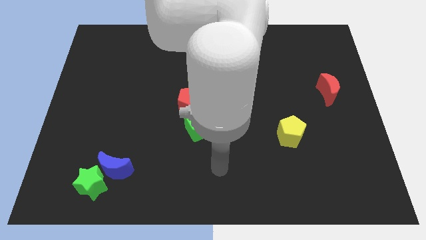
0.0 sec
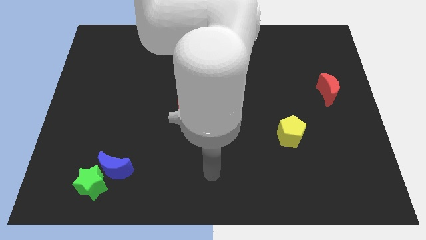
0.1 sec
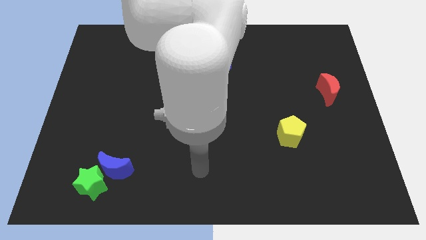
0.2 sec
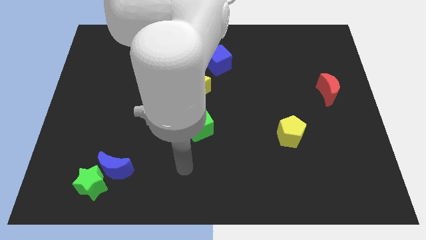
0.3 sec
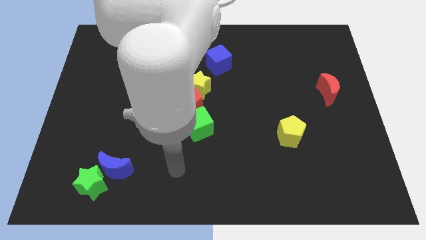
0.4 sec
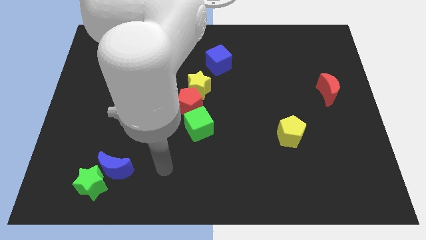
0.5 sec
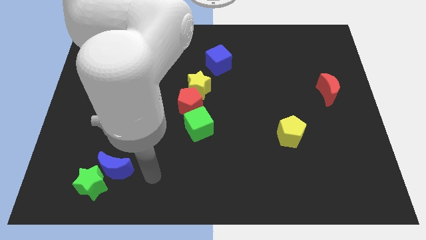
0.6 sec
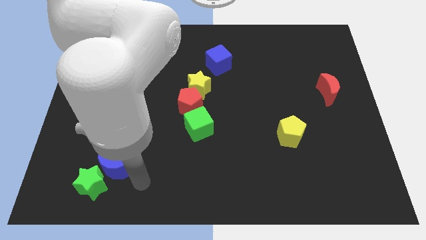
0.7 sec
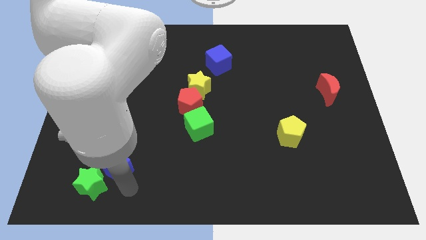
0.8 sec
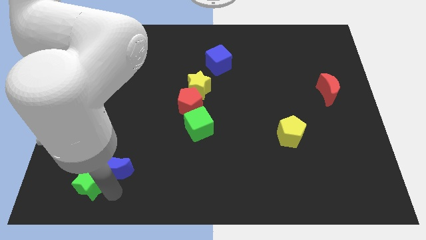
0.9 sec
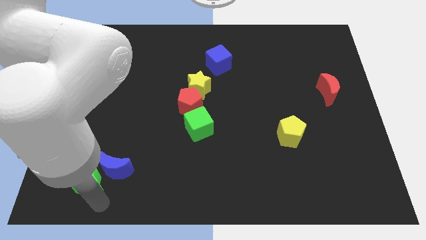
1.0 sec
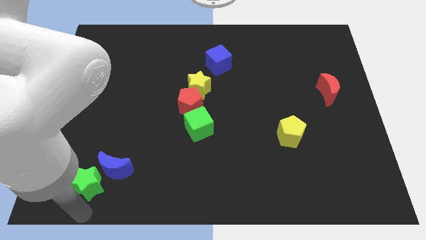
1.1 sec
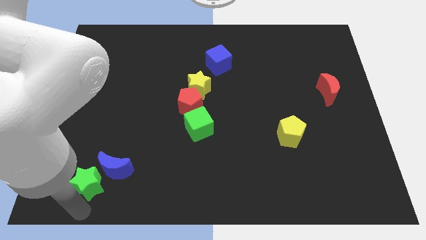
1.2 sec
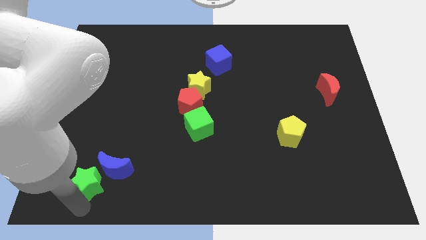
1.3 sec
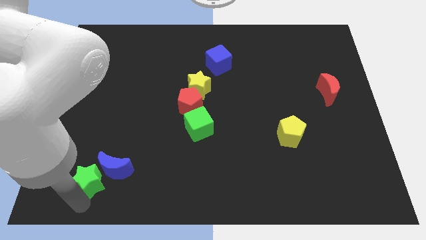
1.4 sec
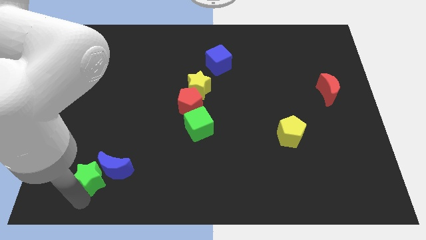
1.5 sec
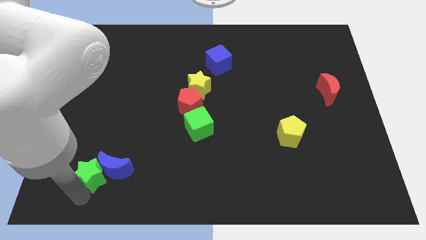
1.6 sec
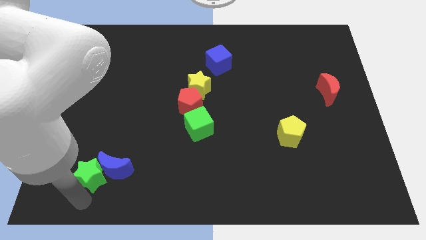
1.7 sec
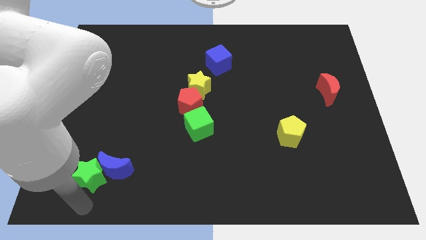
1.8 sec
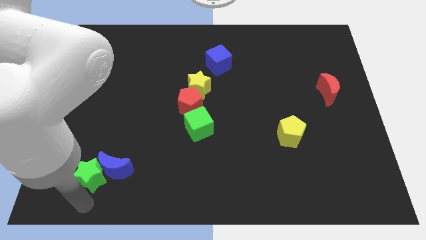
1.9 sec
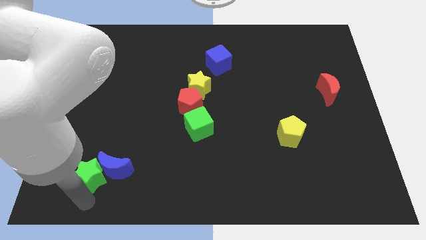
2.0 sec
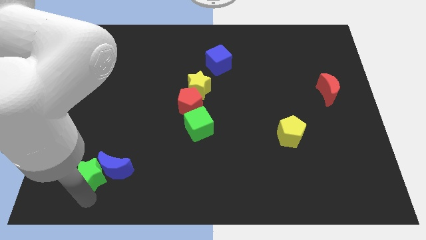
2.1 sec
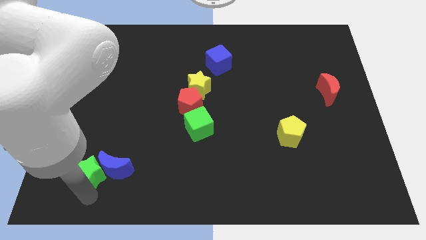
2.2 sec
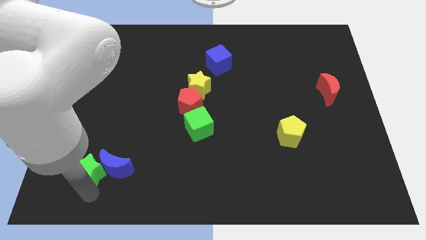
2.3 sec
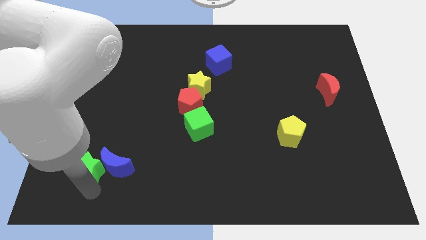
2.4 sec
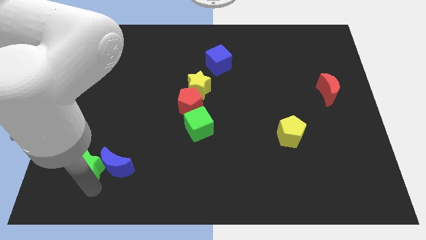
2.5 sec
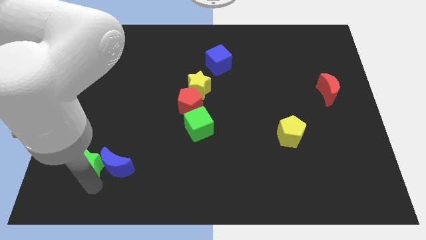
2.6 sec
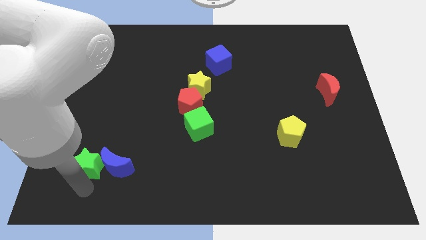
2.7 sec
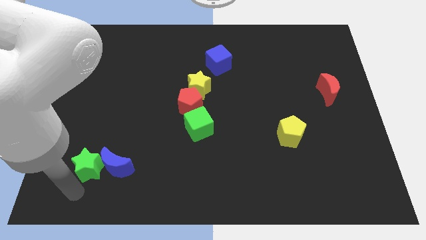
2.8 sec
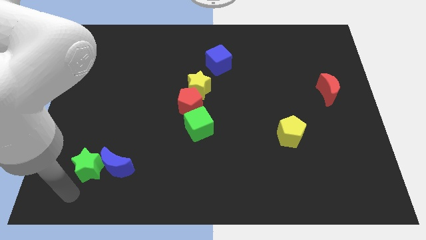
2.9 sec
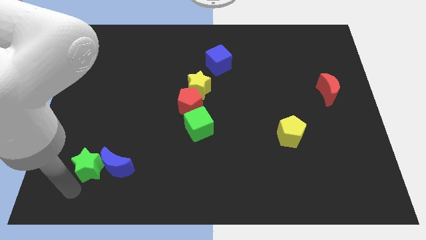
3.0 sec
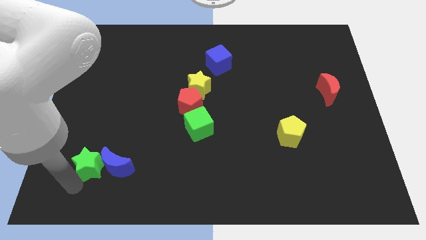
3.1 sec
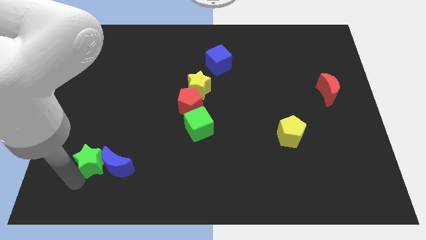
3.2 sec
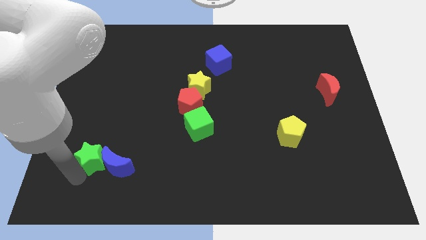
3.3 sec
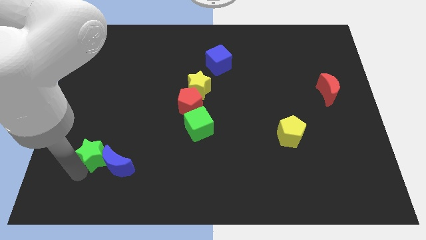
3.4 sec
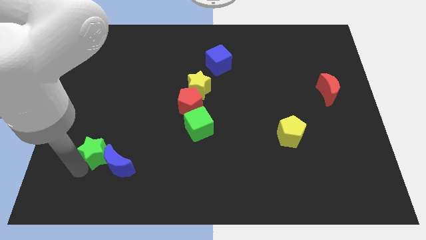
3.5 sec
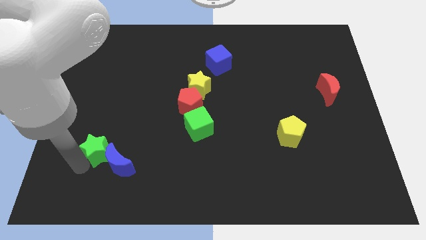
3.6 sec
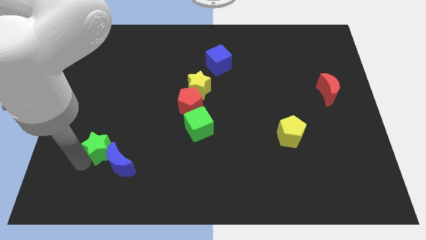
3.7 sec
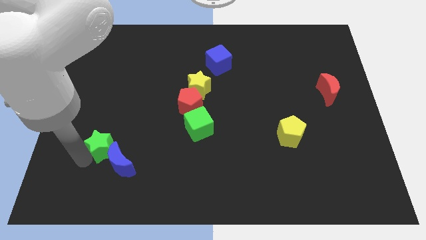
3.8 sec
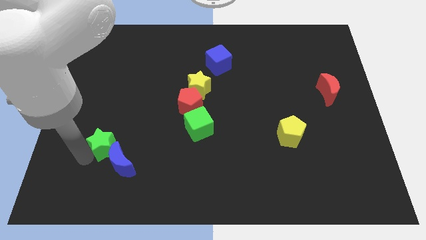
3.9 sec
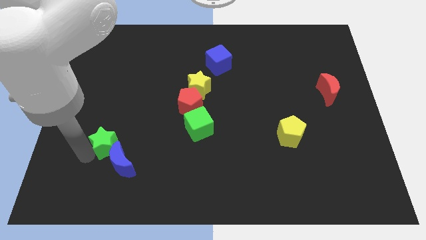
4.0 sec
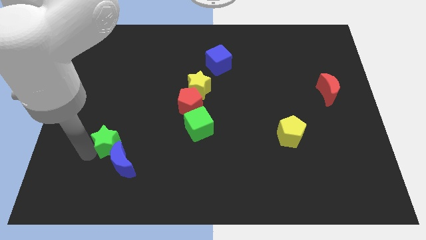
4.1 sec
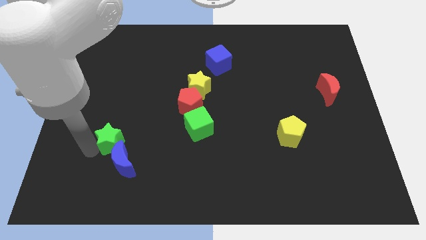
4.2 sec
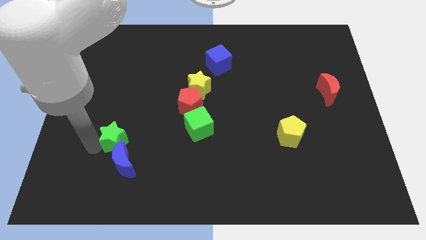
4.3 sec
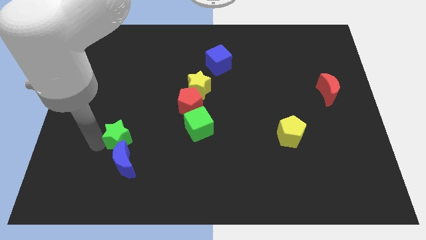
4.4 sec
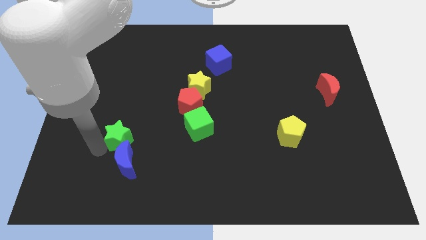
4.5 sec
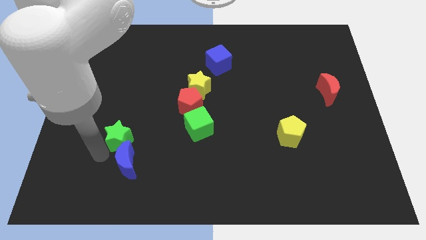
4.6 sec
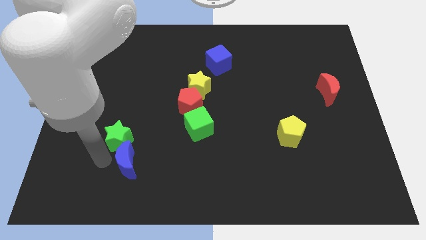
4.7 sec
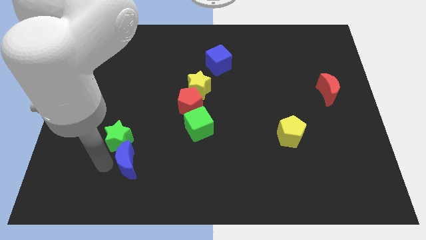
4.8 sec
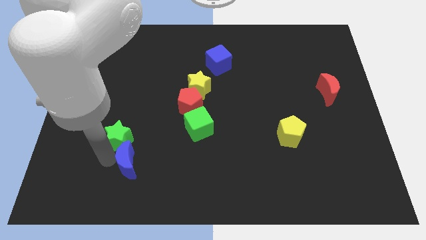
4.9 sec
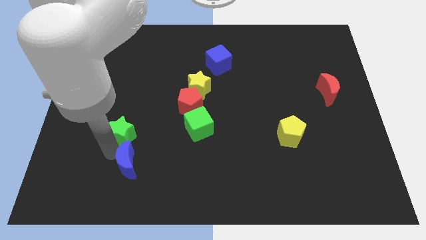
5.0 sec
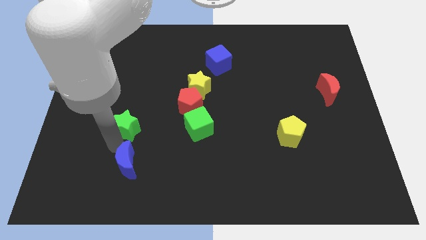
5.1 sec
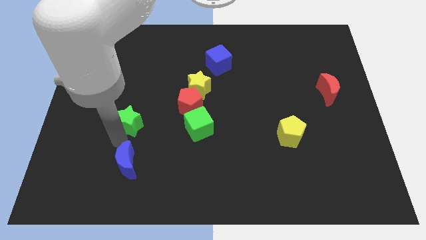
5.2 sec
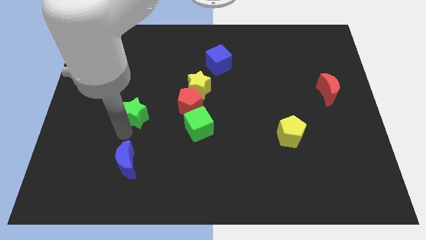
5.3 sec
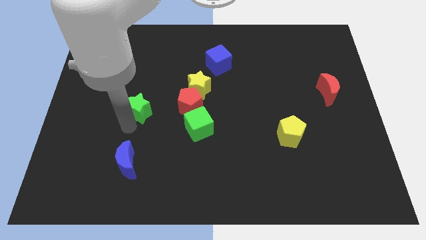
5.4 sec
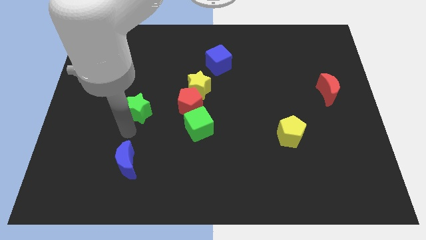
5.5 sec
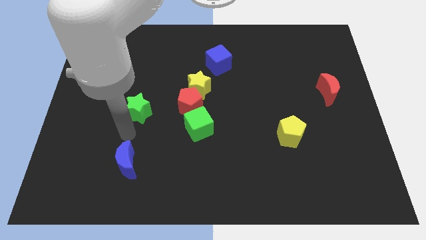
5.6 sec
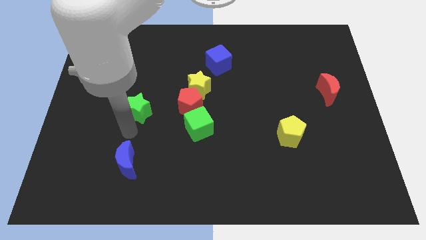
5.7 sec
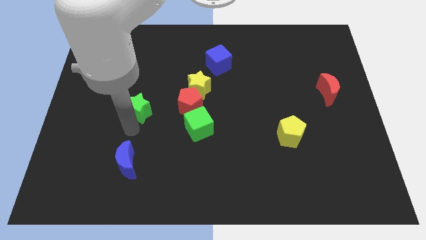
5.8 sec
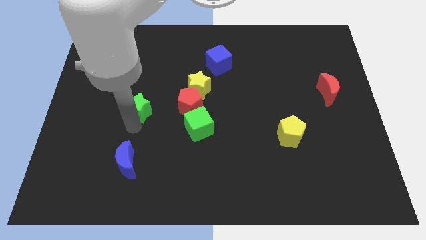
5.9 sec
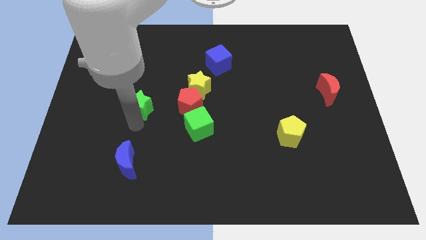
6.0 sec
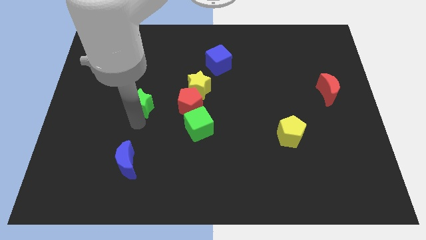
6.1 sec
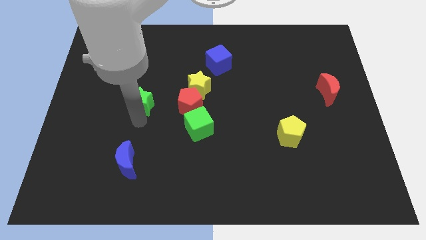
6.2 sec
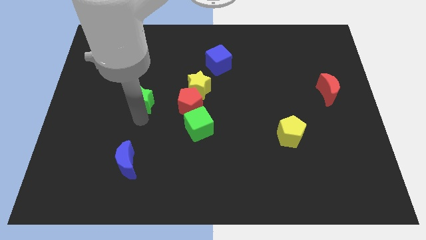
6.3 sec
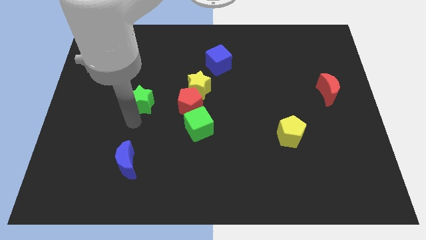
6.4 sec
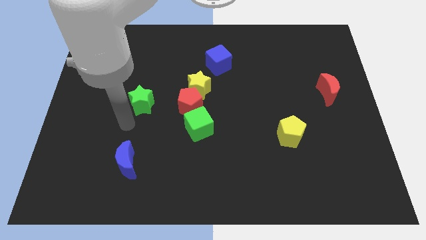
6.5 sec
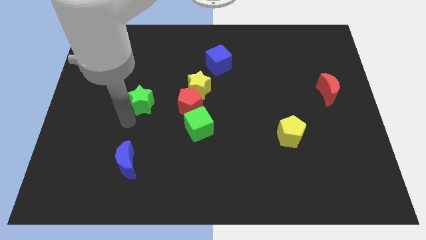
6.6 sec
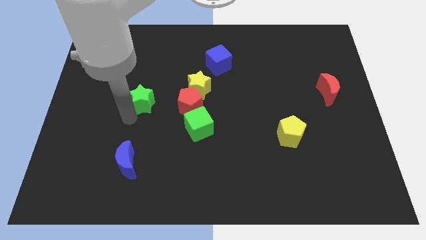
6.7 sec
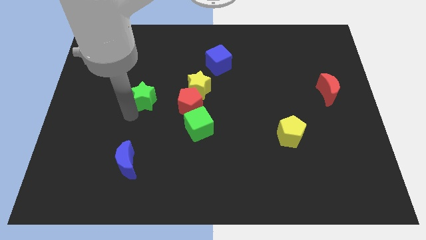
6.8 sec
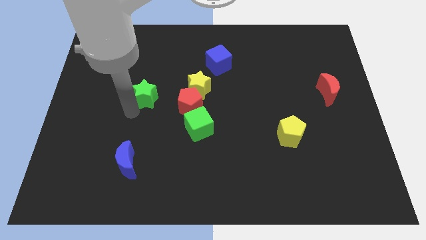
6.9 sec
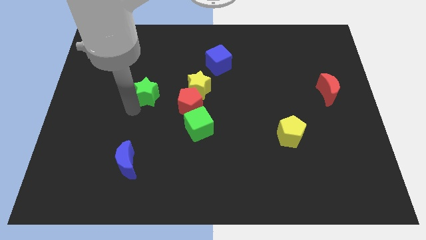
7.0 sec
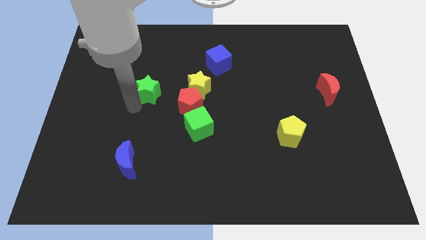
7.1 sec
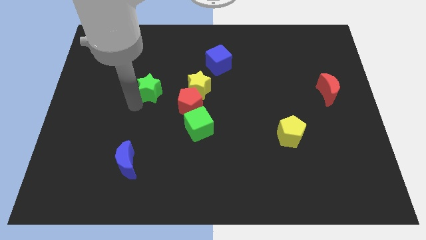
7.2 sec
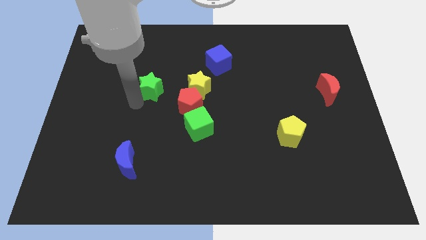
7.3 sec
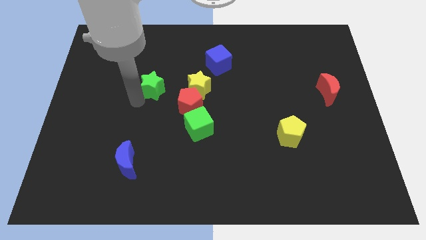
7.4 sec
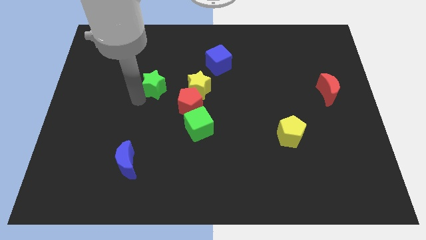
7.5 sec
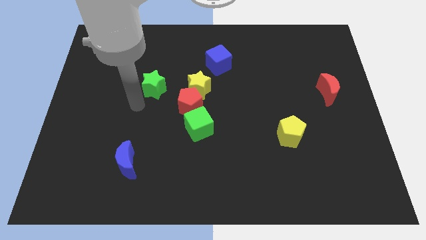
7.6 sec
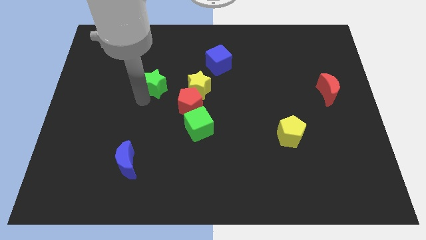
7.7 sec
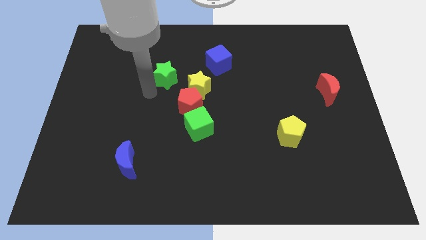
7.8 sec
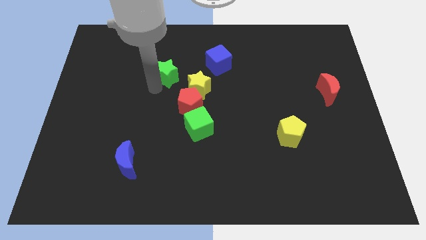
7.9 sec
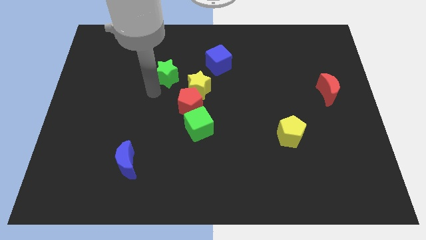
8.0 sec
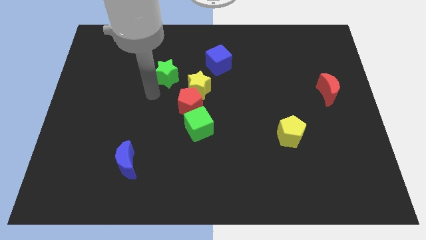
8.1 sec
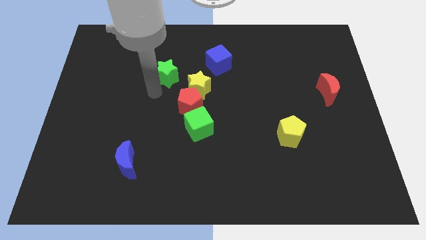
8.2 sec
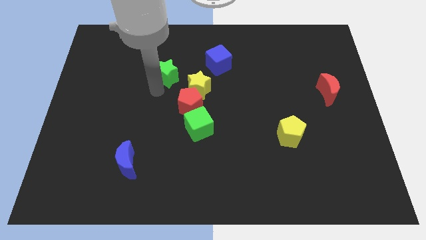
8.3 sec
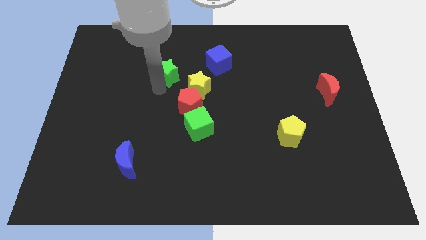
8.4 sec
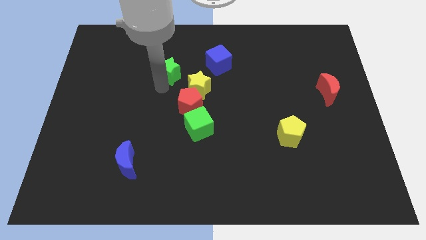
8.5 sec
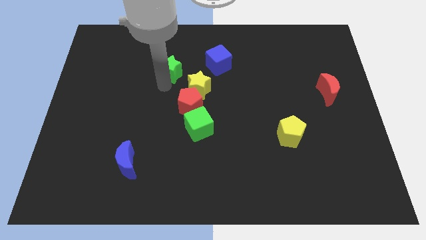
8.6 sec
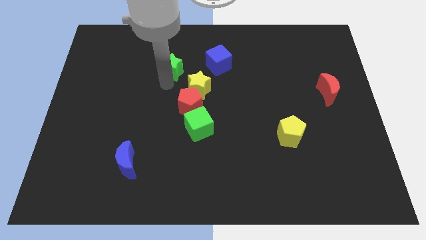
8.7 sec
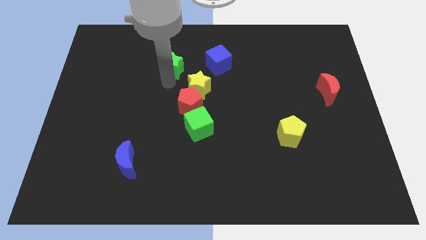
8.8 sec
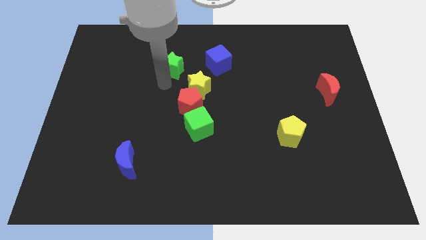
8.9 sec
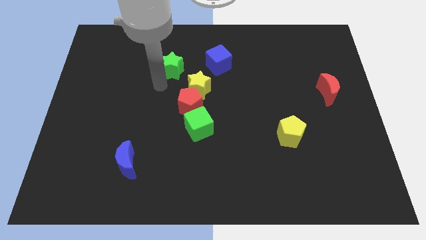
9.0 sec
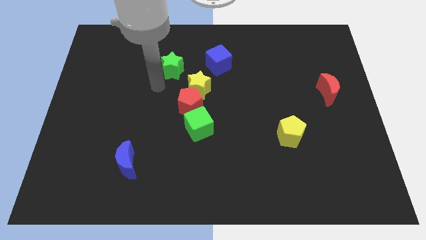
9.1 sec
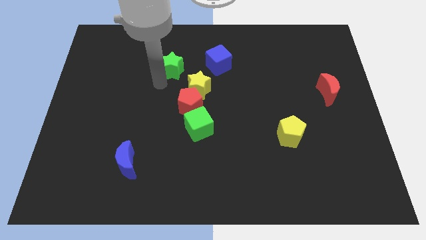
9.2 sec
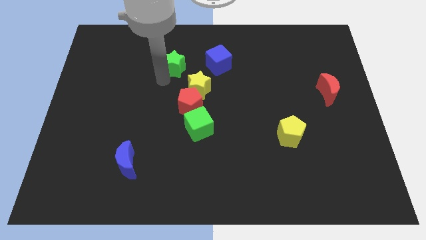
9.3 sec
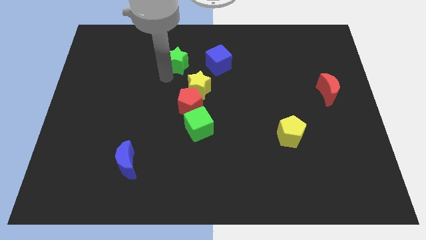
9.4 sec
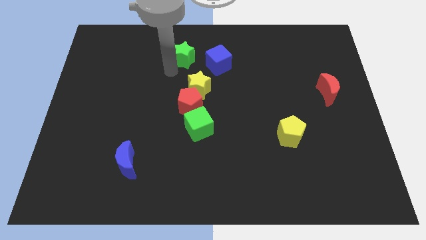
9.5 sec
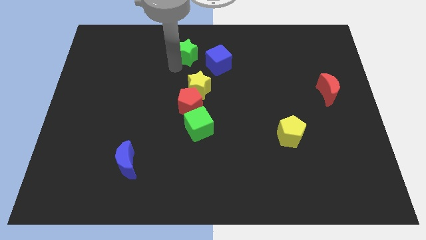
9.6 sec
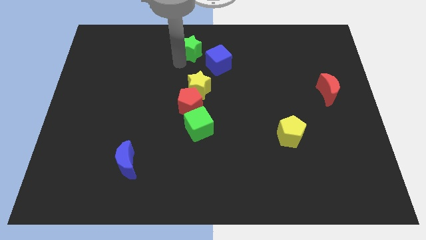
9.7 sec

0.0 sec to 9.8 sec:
slide the green star to the towards your base
